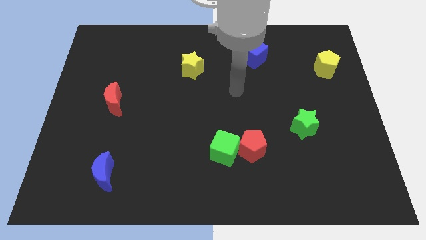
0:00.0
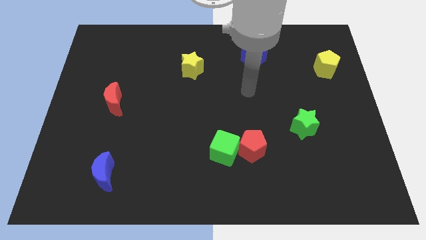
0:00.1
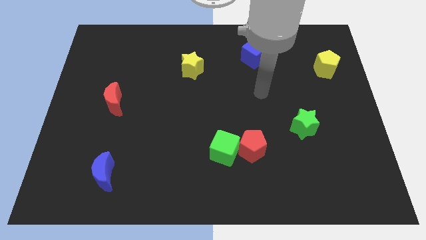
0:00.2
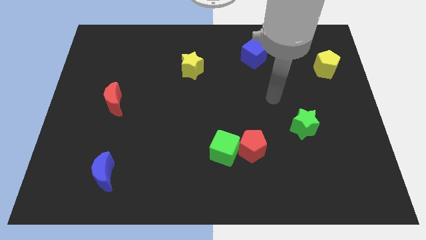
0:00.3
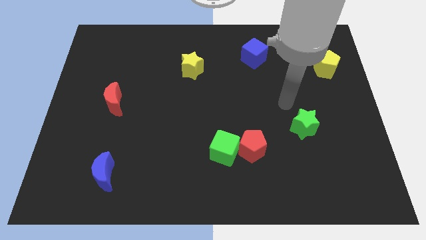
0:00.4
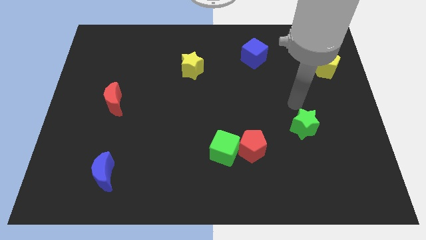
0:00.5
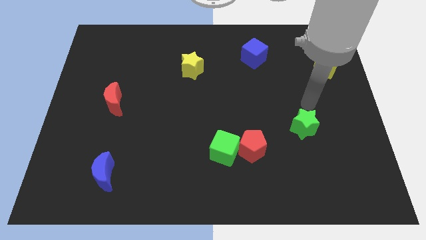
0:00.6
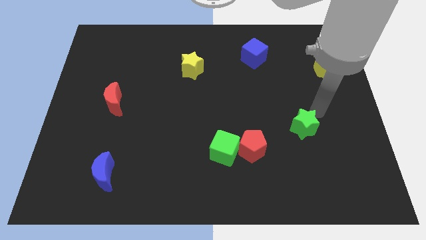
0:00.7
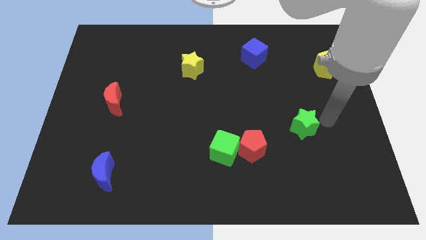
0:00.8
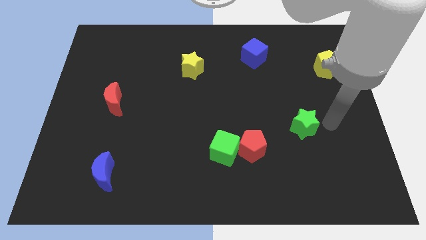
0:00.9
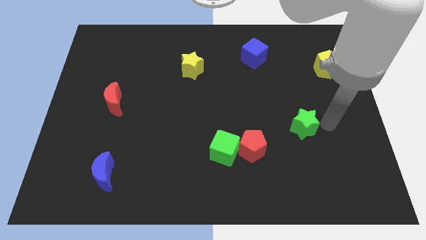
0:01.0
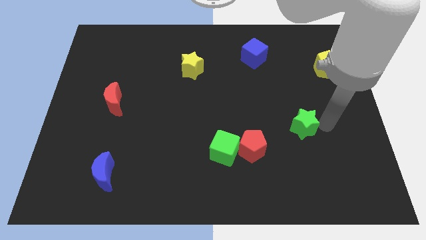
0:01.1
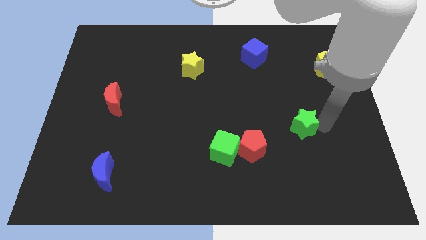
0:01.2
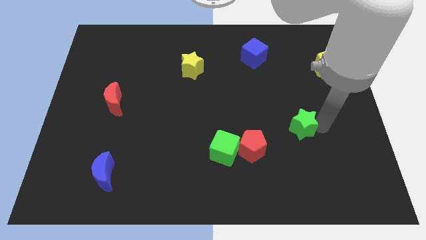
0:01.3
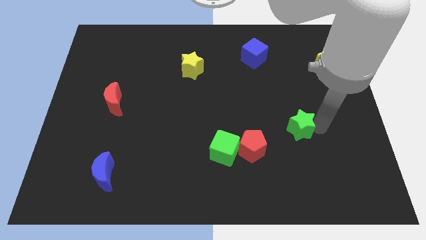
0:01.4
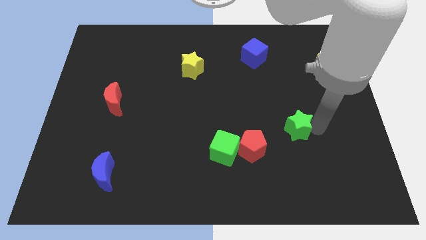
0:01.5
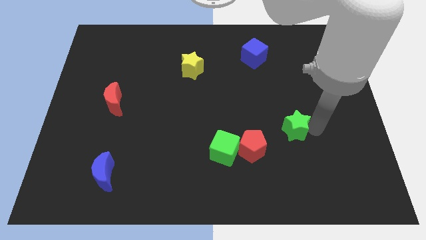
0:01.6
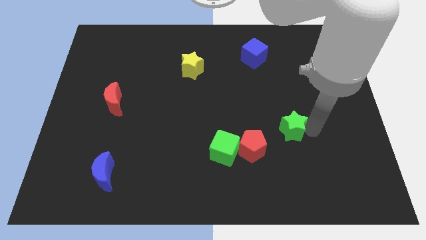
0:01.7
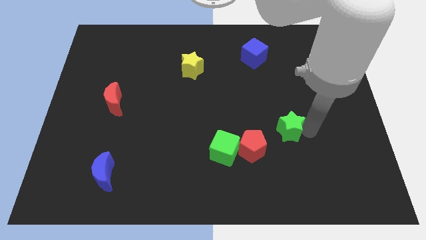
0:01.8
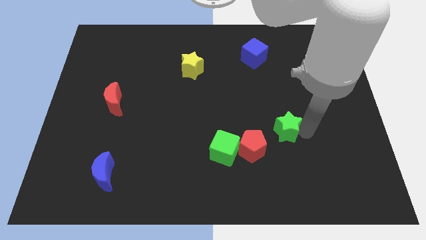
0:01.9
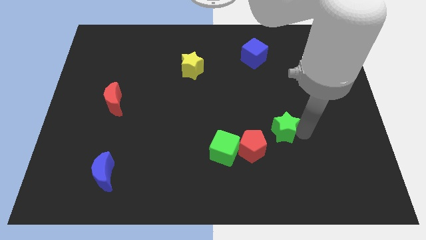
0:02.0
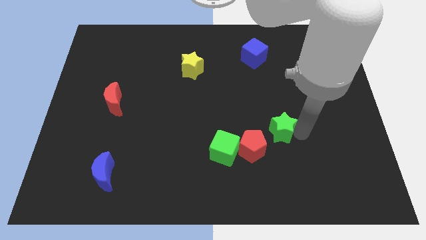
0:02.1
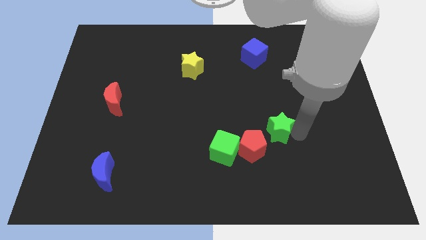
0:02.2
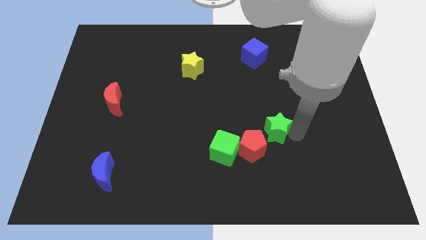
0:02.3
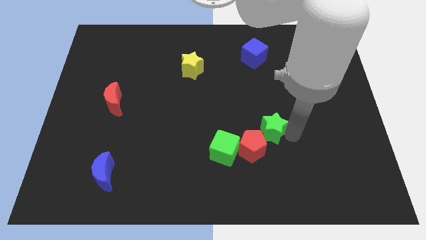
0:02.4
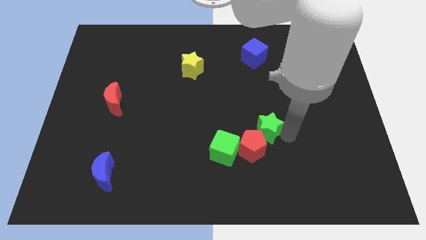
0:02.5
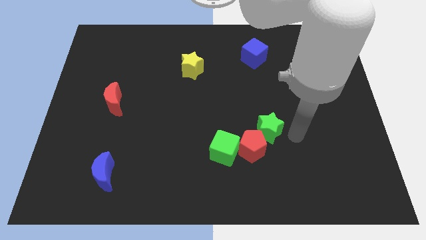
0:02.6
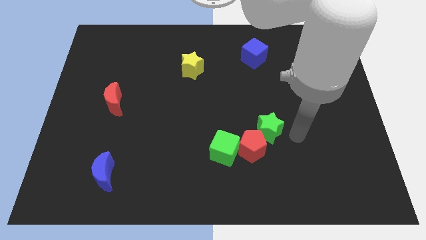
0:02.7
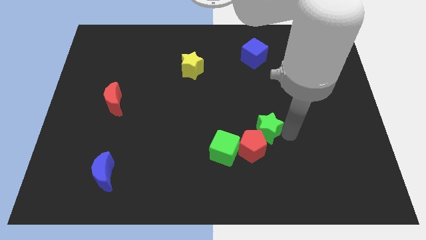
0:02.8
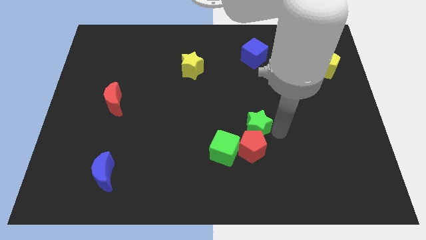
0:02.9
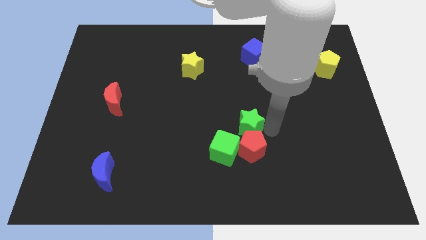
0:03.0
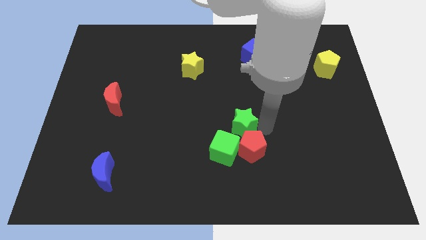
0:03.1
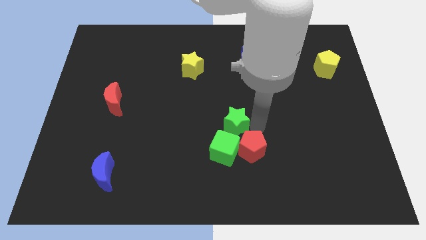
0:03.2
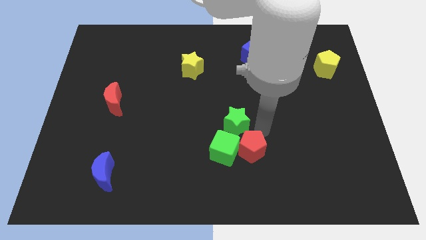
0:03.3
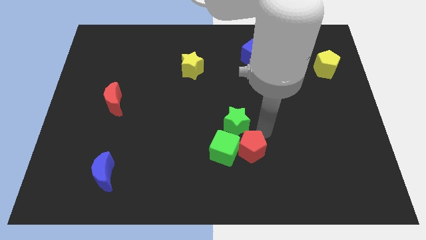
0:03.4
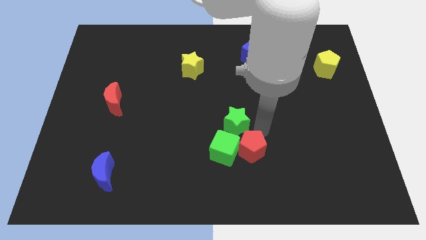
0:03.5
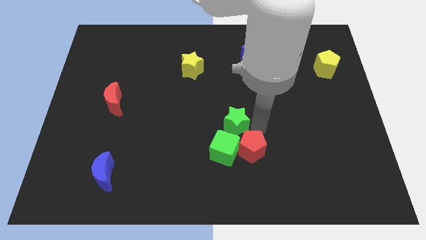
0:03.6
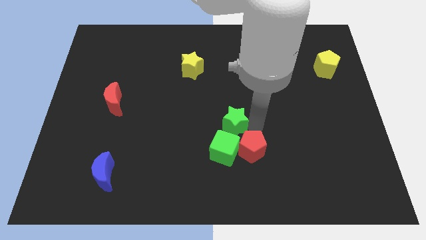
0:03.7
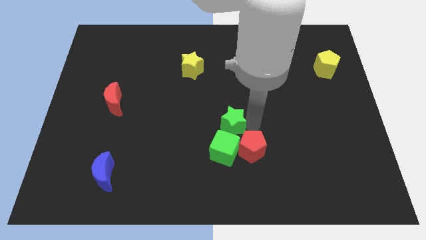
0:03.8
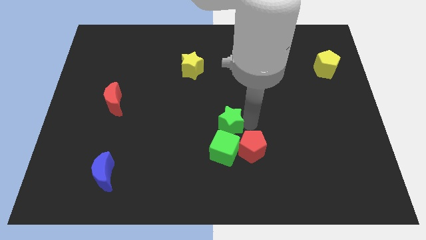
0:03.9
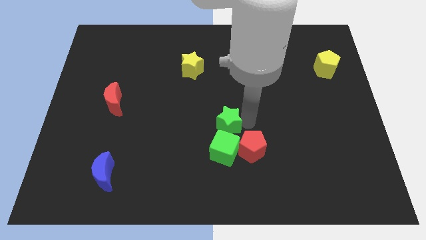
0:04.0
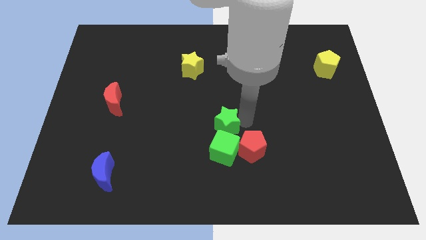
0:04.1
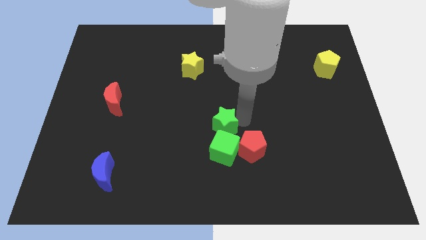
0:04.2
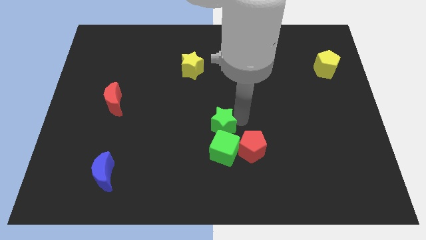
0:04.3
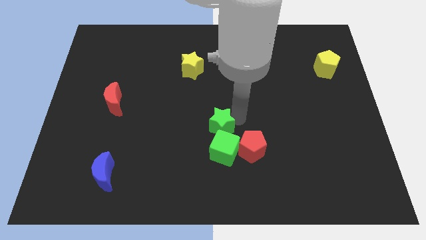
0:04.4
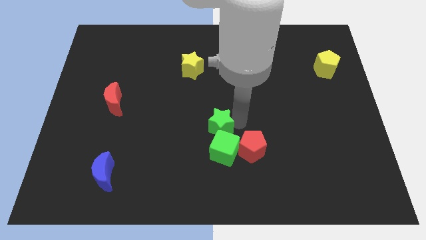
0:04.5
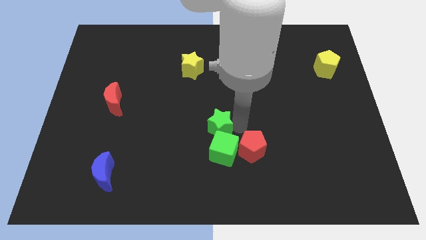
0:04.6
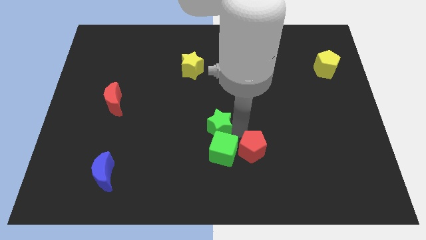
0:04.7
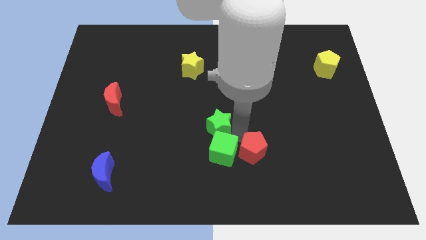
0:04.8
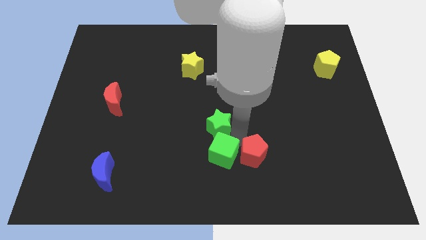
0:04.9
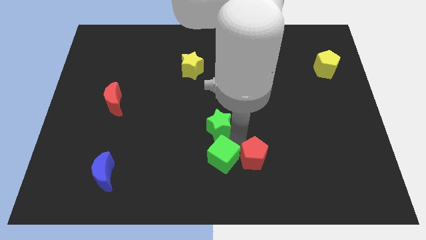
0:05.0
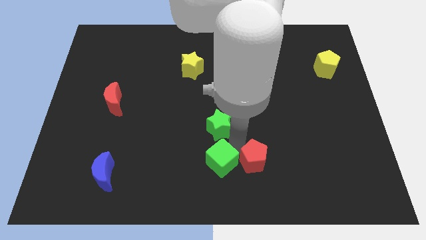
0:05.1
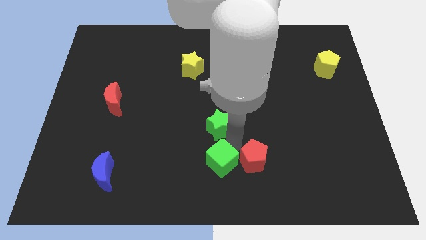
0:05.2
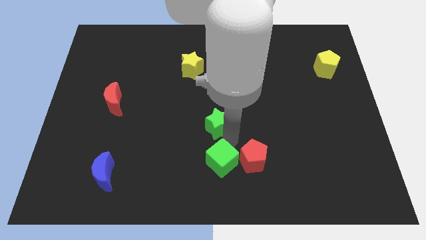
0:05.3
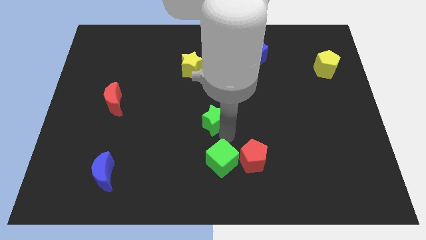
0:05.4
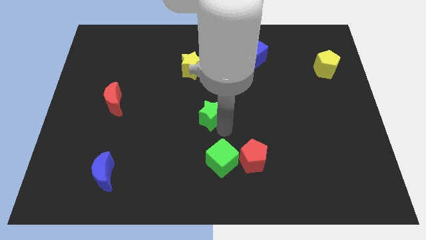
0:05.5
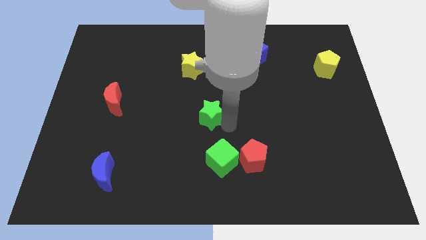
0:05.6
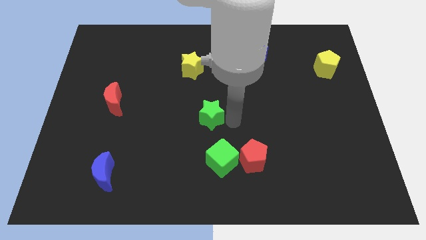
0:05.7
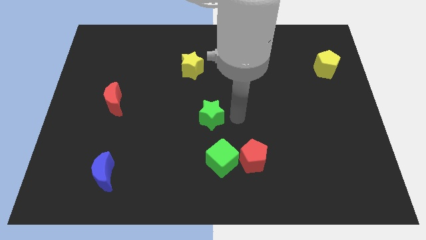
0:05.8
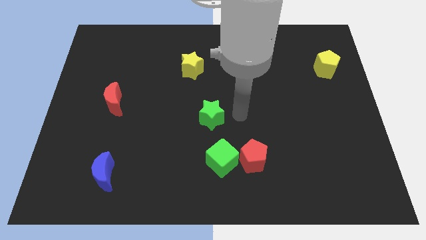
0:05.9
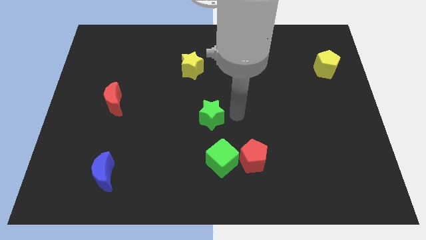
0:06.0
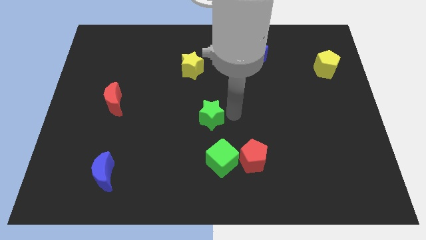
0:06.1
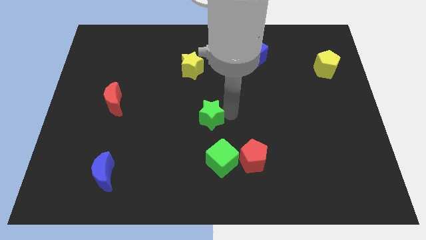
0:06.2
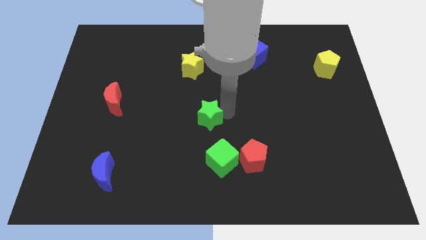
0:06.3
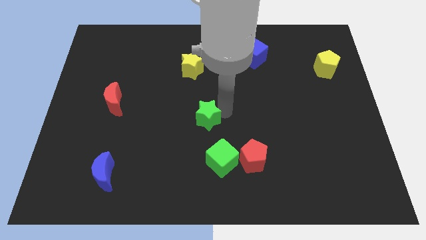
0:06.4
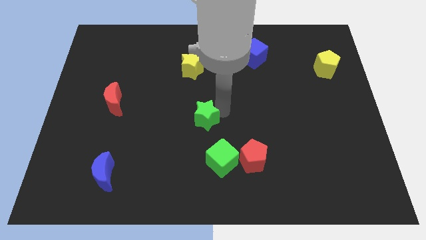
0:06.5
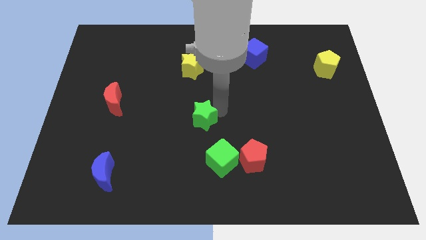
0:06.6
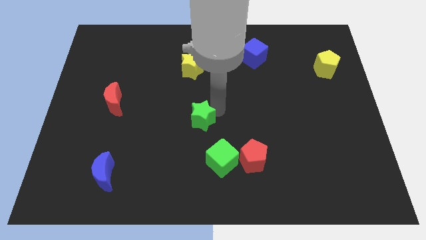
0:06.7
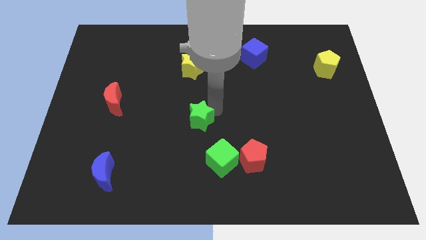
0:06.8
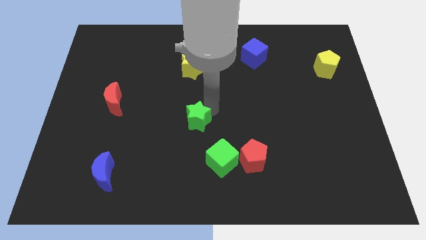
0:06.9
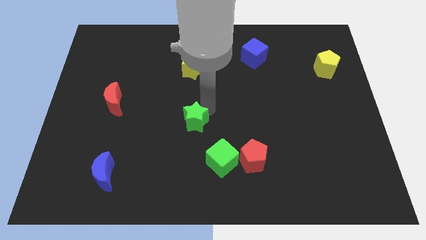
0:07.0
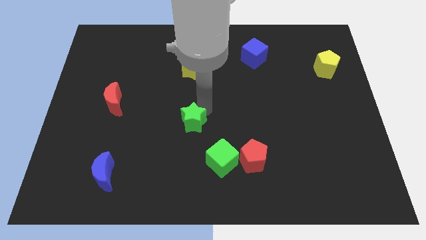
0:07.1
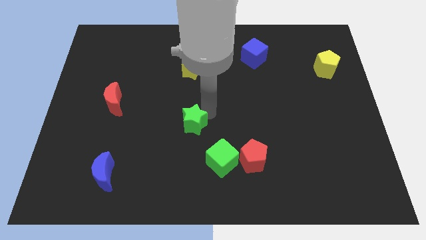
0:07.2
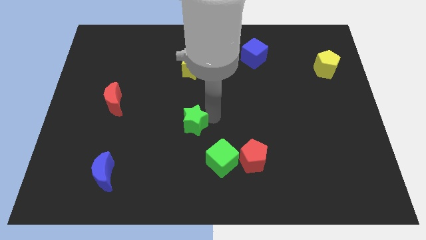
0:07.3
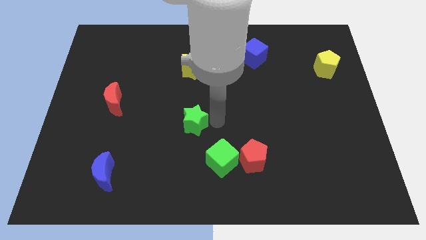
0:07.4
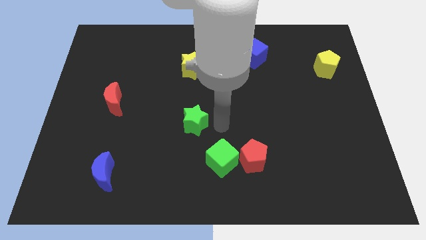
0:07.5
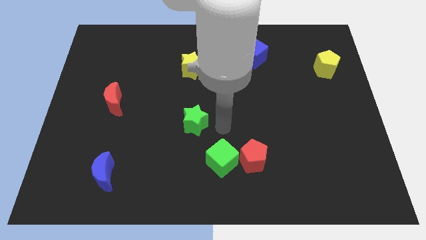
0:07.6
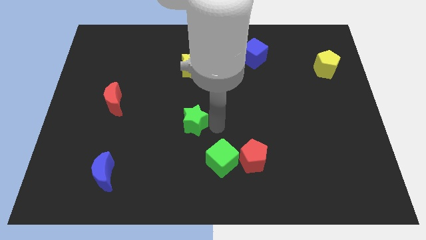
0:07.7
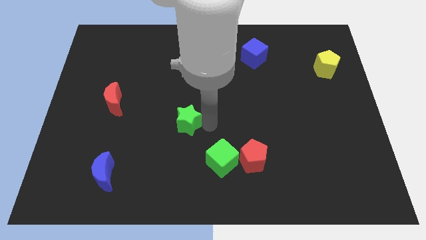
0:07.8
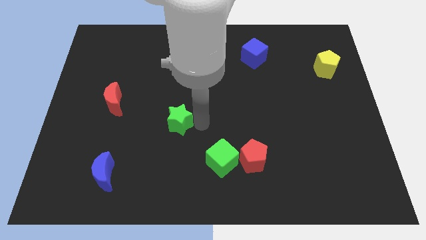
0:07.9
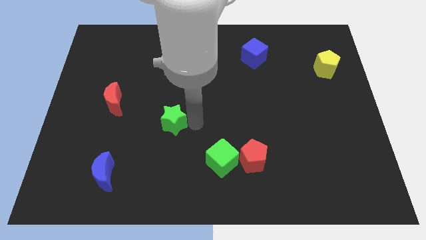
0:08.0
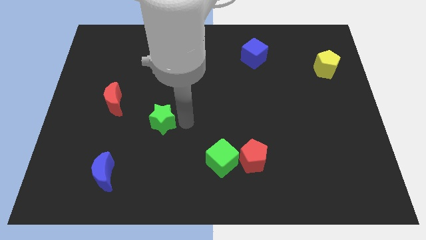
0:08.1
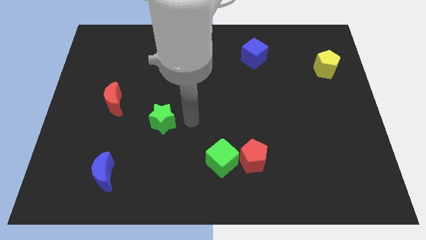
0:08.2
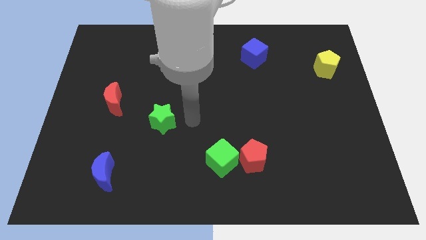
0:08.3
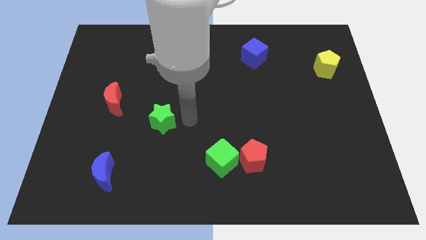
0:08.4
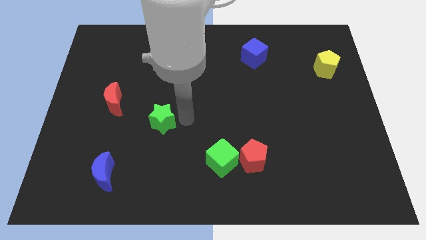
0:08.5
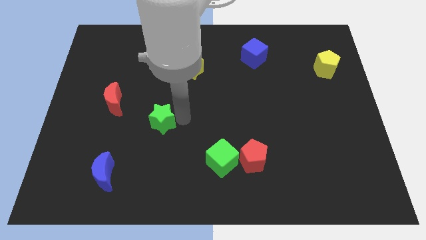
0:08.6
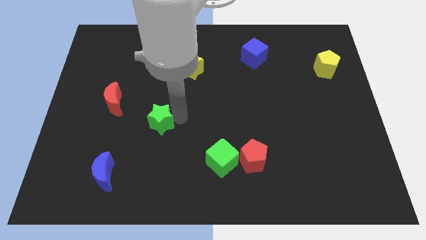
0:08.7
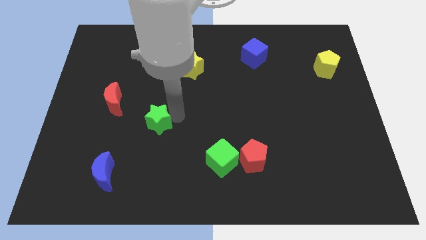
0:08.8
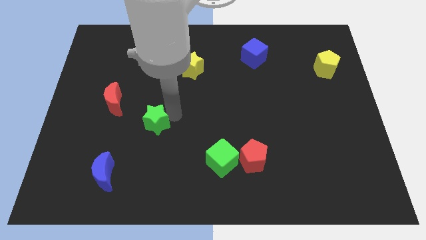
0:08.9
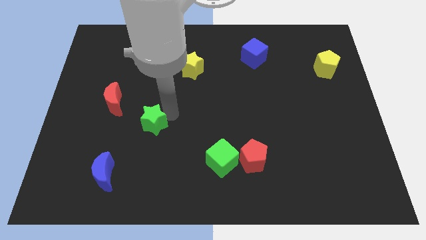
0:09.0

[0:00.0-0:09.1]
push the green star to the bottom right side of the red moon
